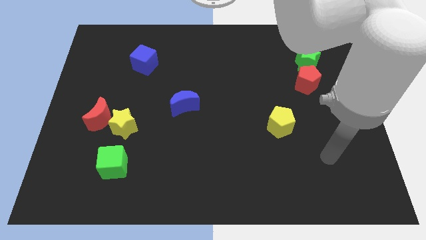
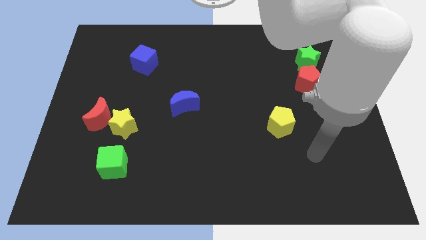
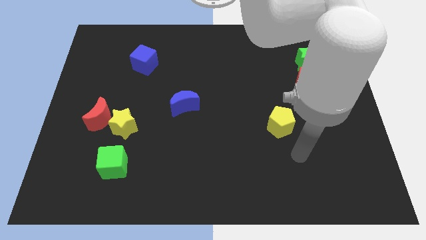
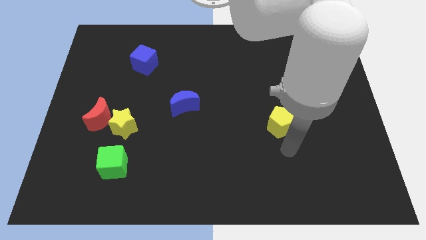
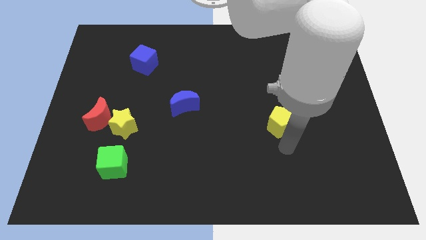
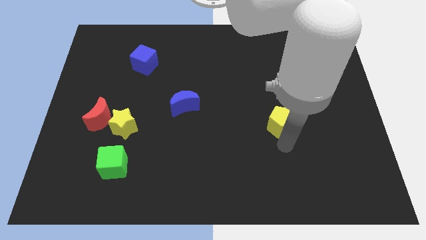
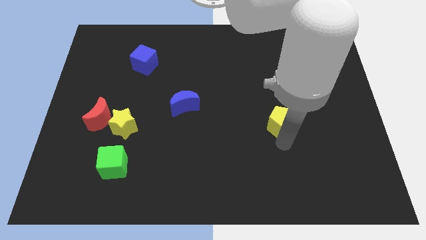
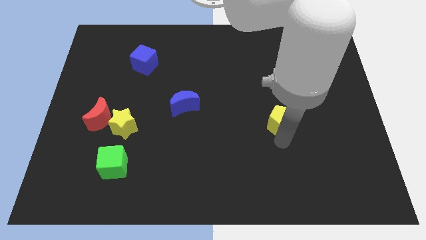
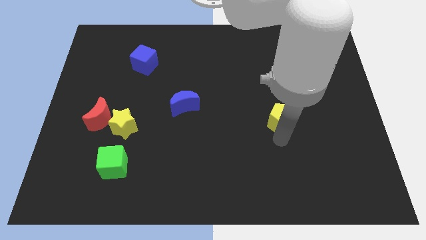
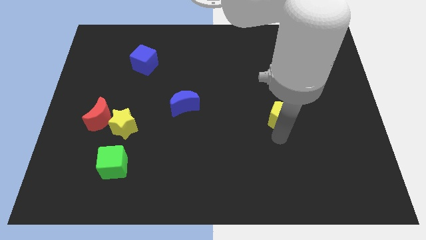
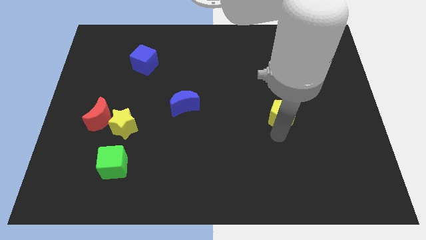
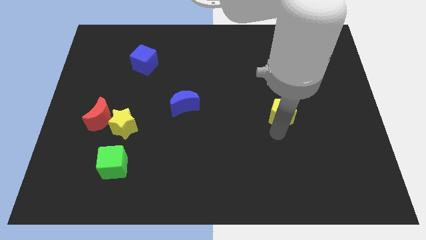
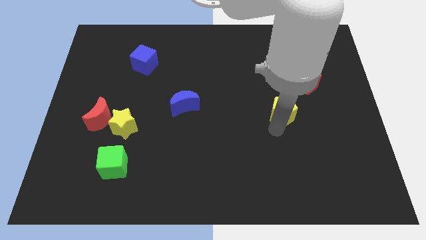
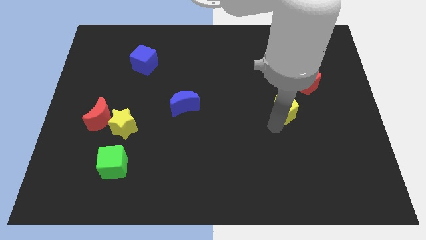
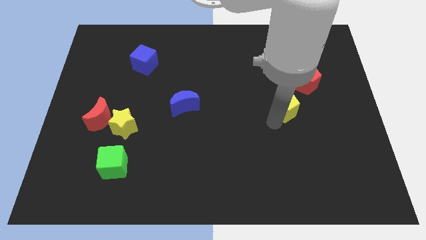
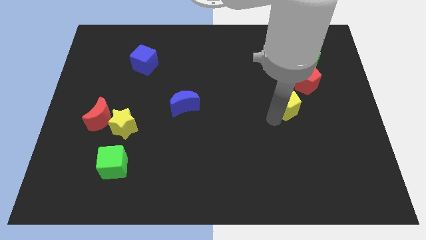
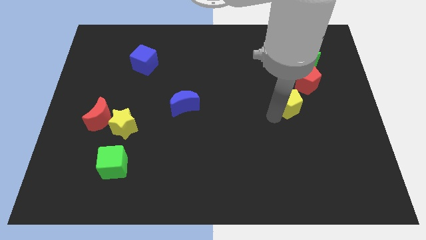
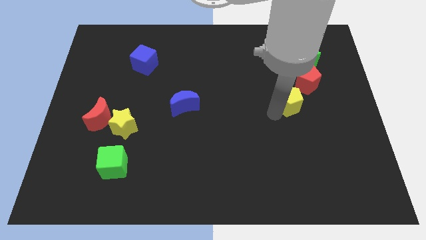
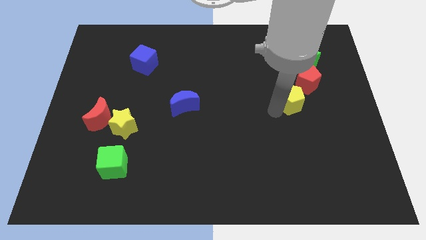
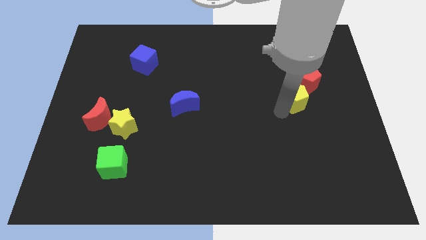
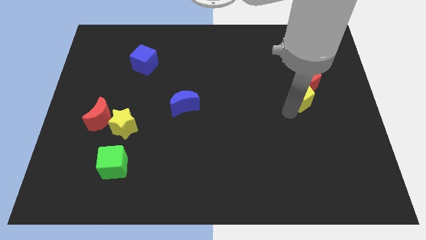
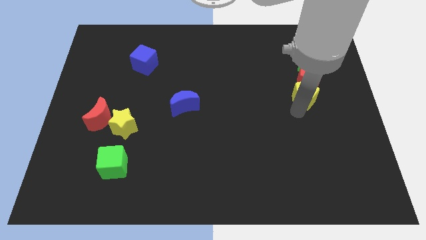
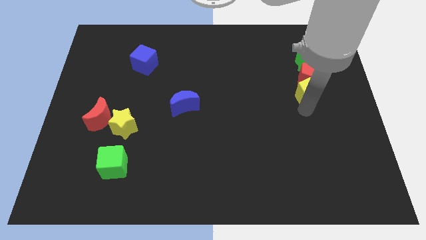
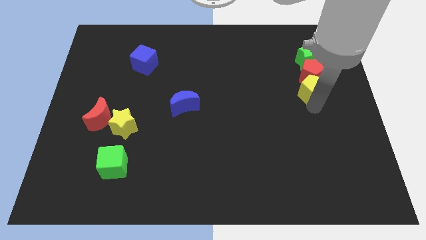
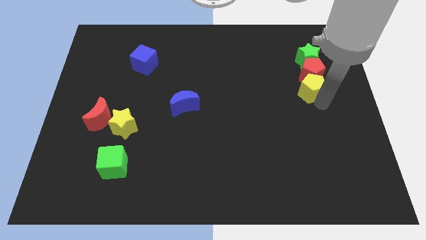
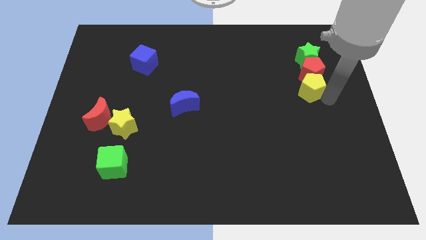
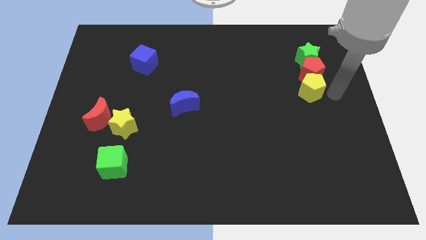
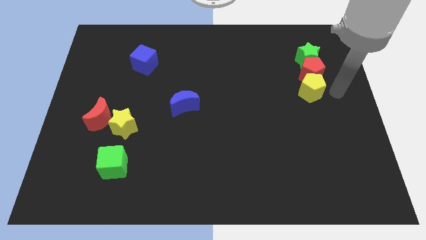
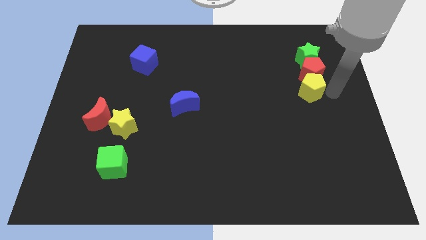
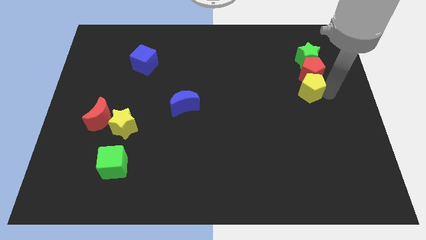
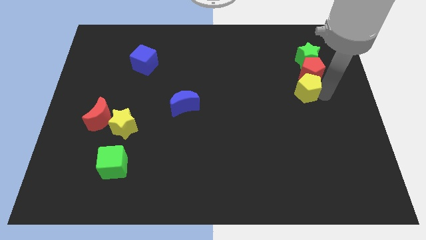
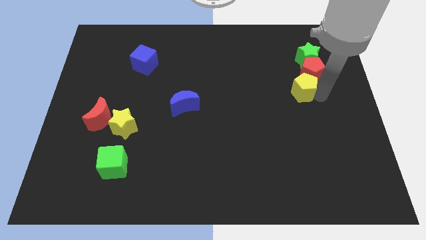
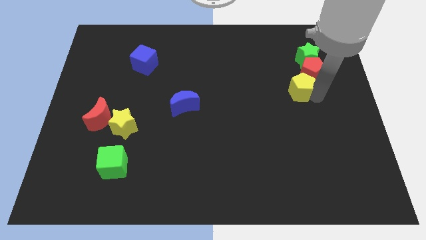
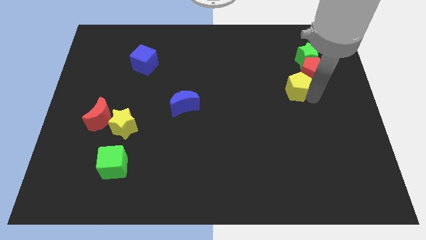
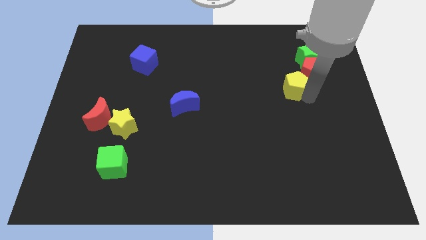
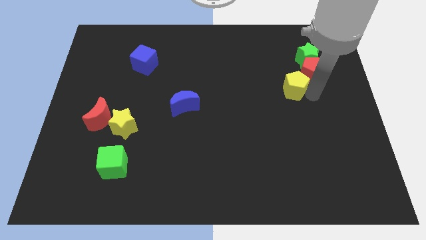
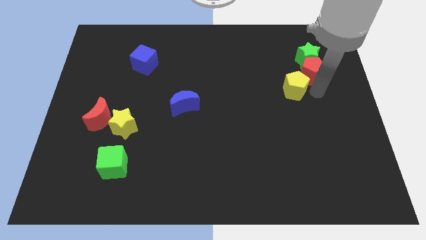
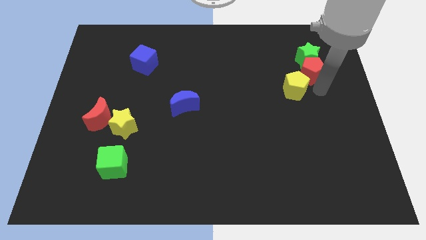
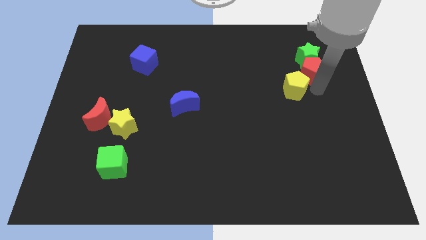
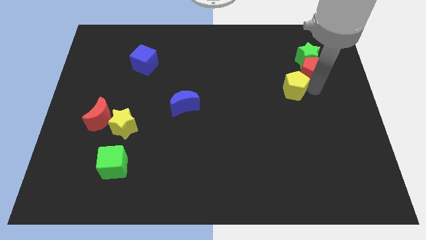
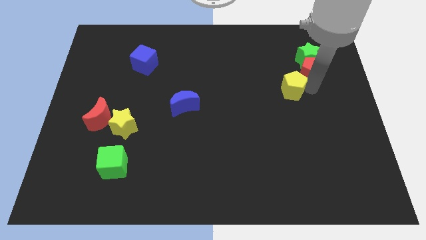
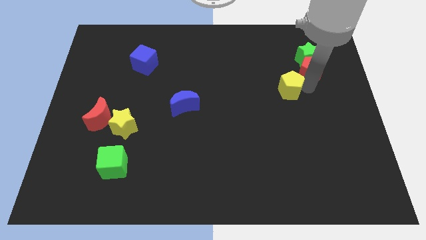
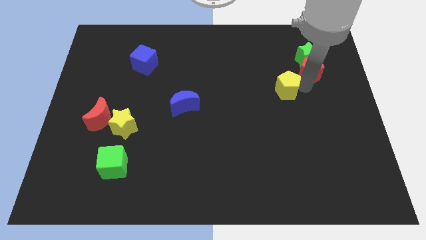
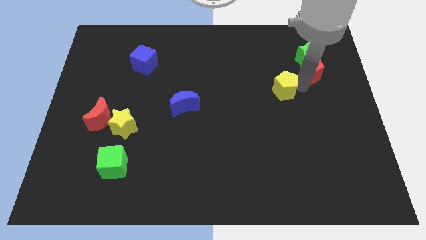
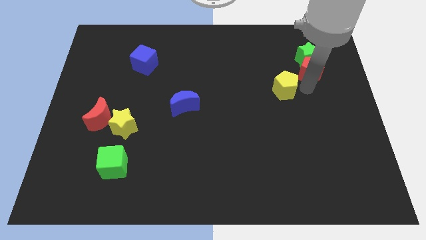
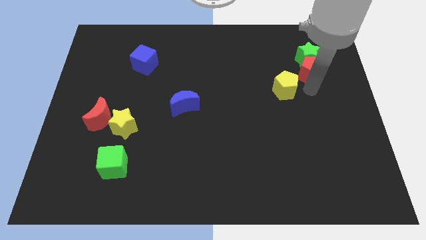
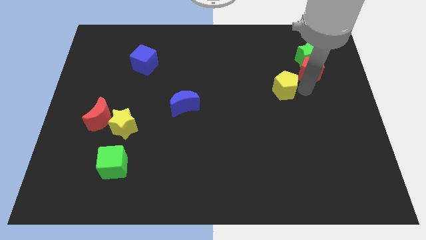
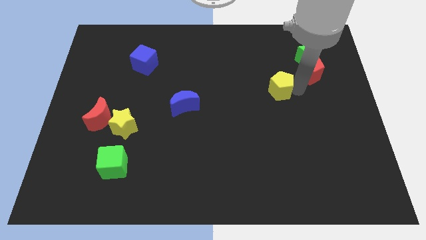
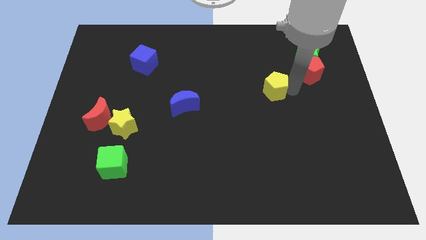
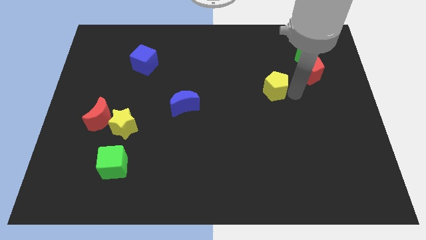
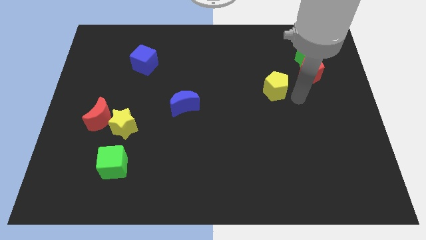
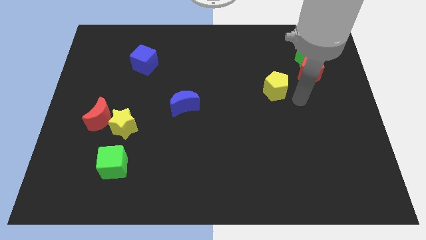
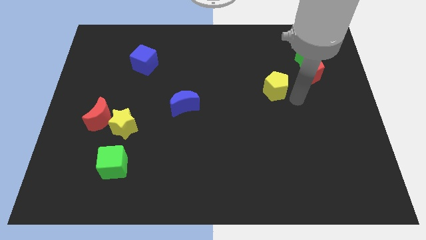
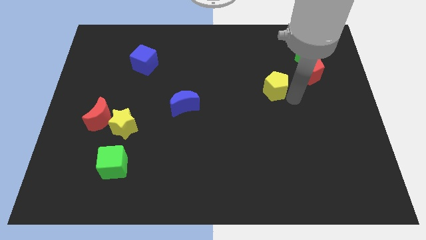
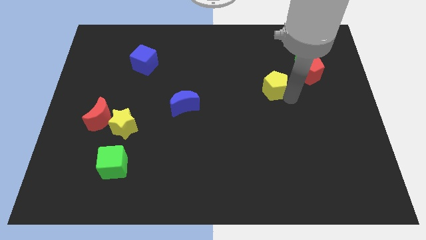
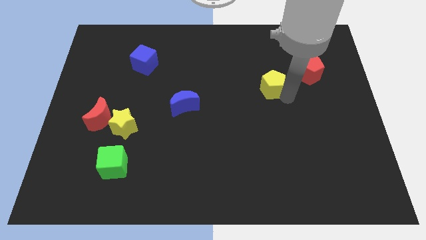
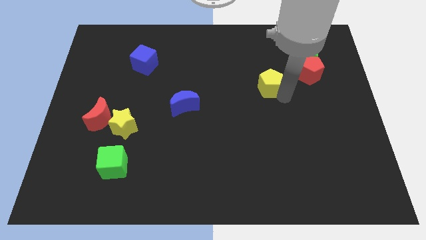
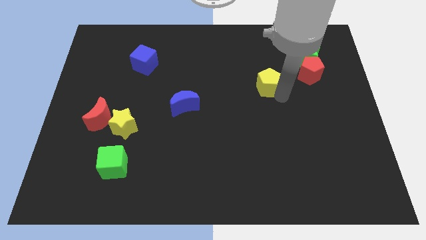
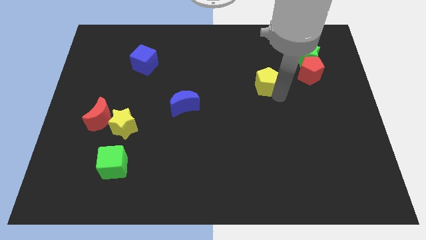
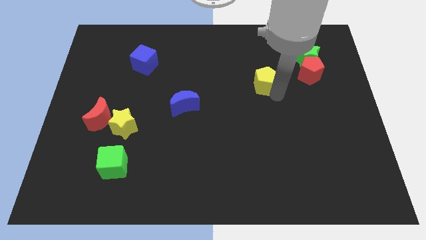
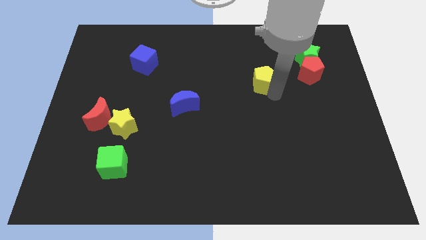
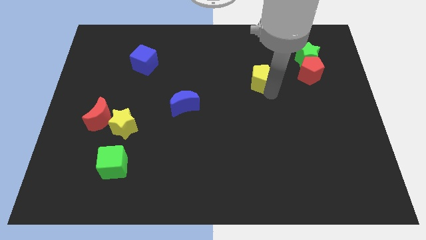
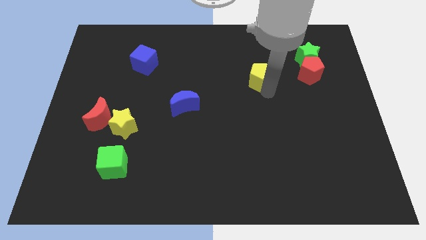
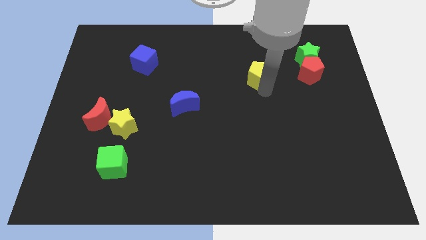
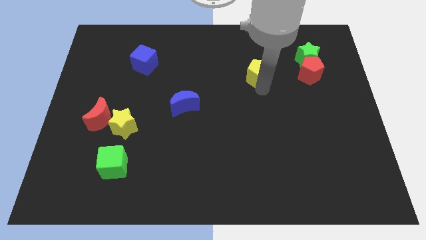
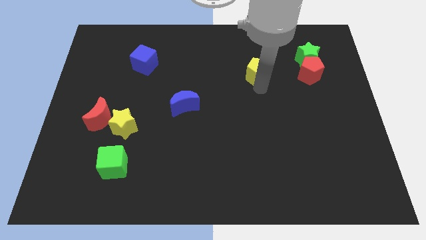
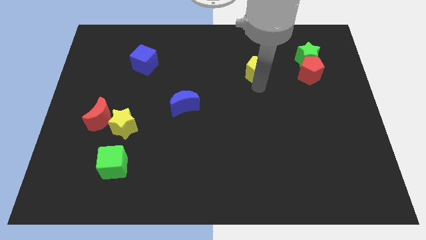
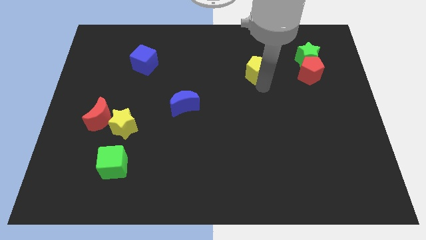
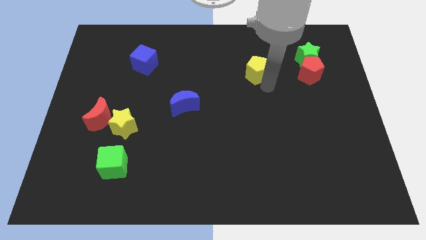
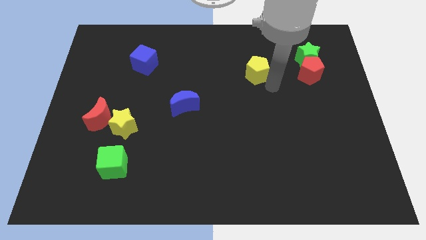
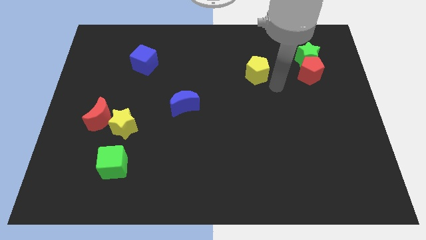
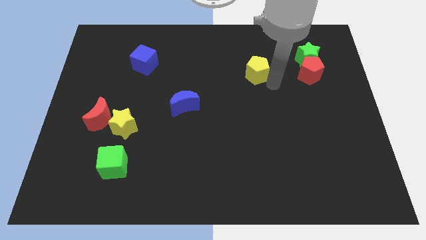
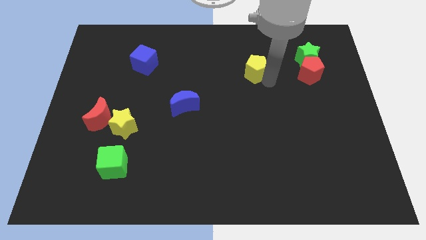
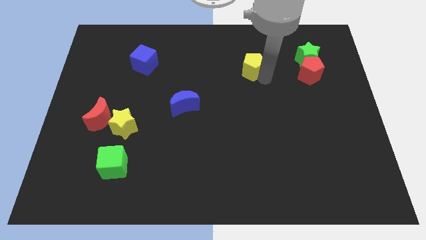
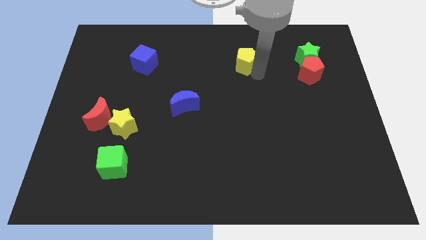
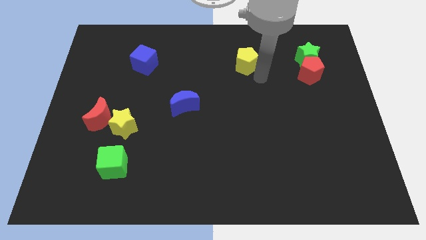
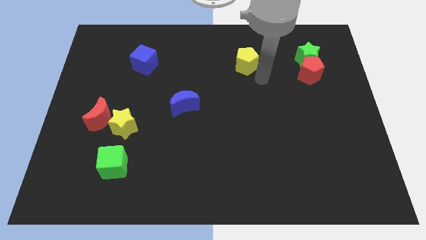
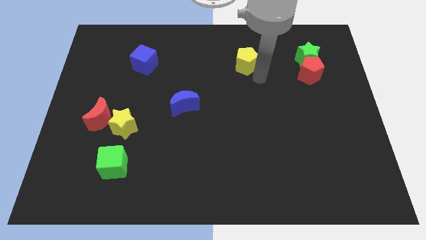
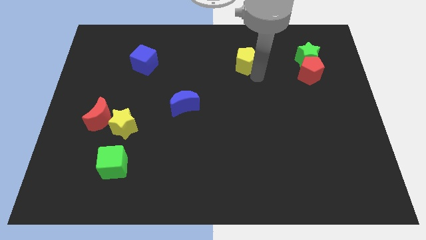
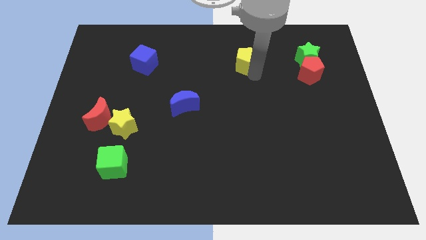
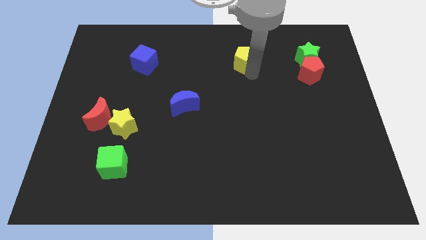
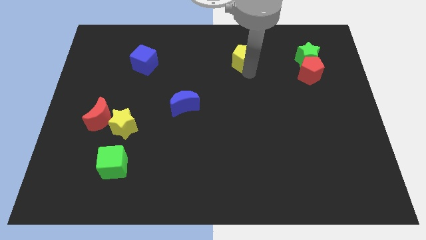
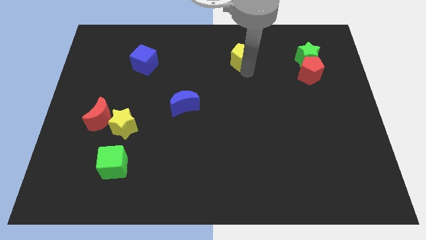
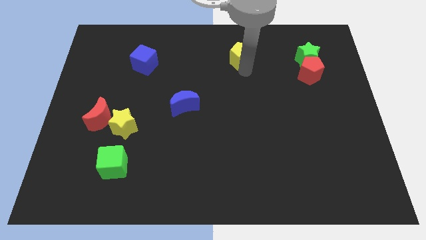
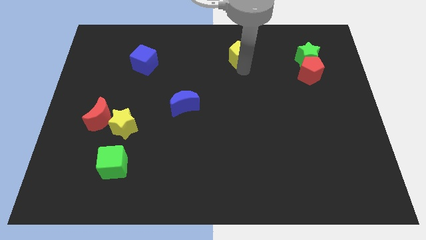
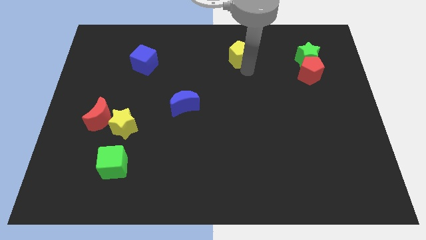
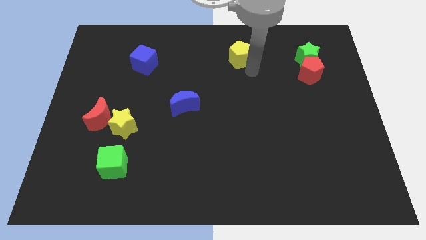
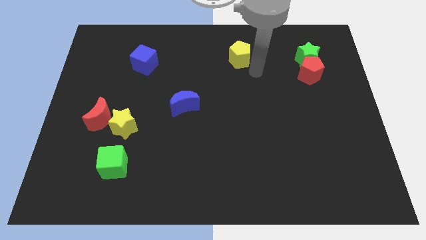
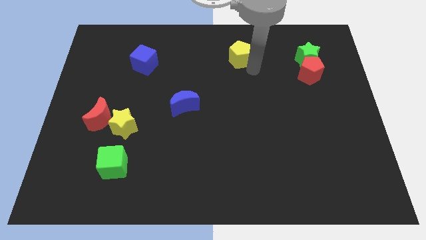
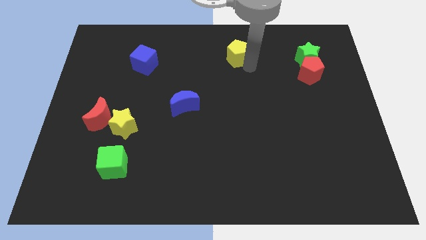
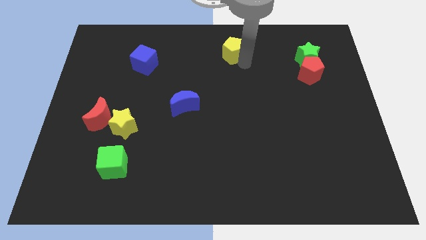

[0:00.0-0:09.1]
slide the yellow pentagon to the towards your base
